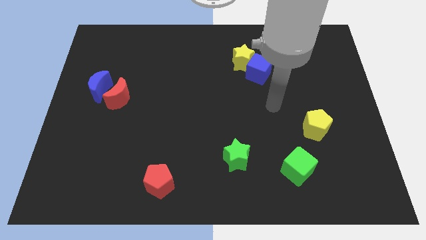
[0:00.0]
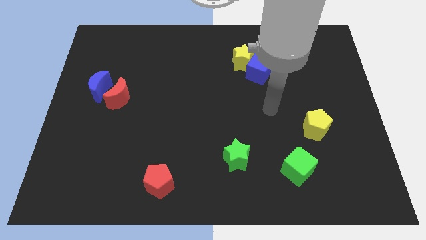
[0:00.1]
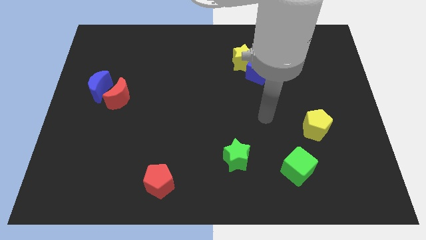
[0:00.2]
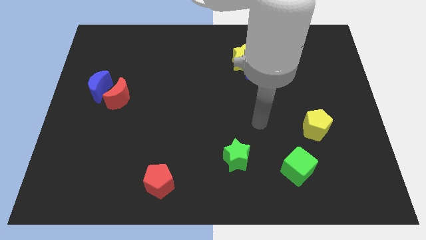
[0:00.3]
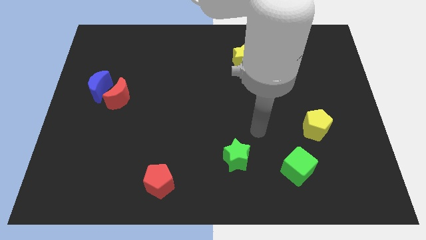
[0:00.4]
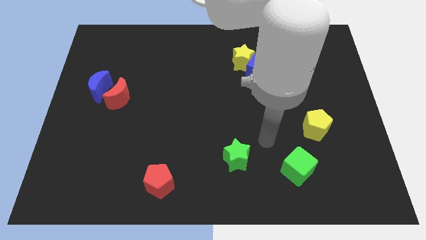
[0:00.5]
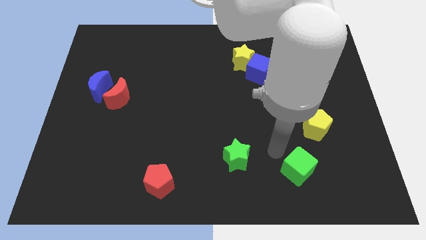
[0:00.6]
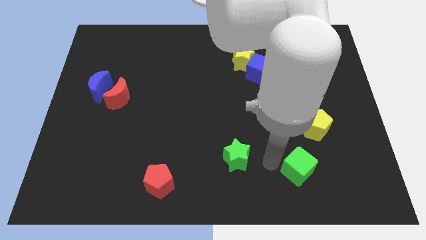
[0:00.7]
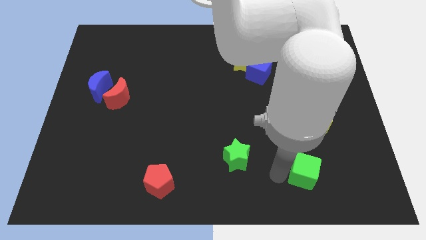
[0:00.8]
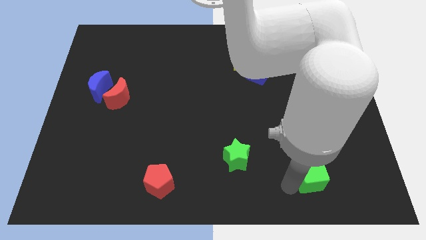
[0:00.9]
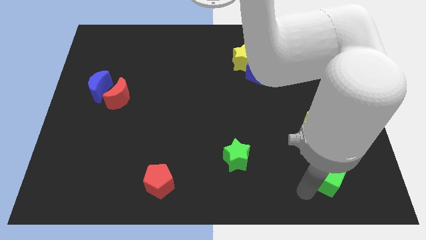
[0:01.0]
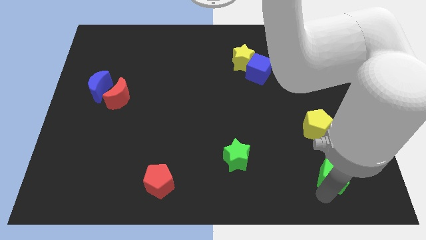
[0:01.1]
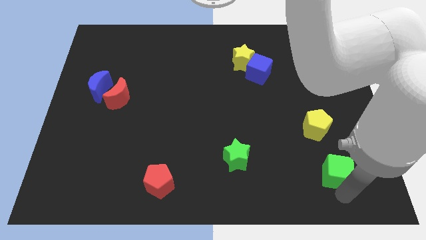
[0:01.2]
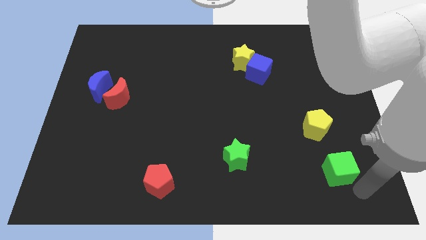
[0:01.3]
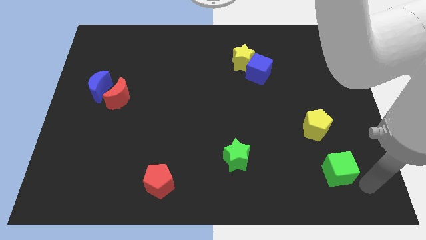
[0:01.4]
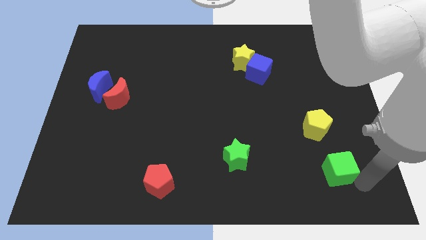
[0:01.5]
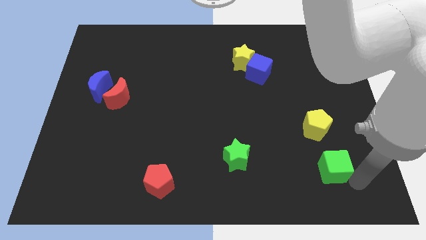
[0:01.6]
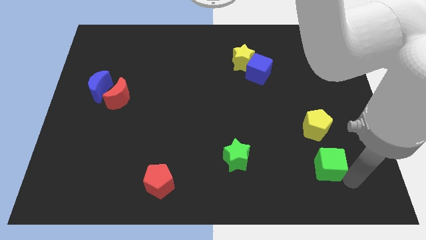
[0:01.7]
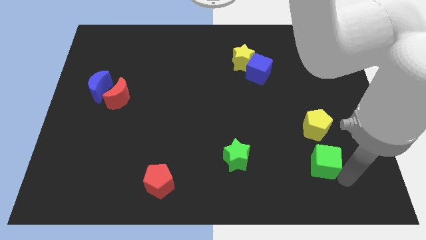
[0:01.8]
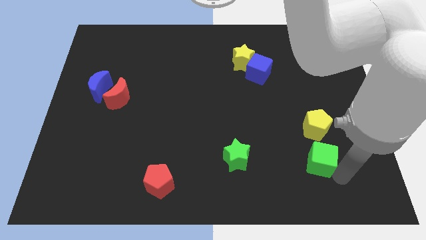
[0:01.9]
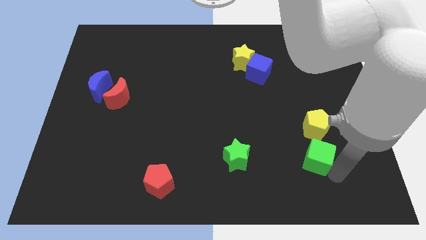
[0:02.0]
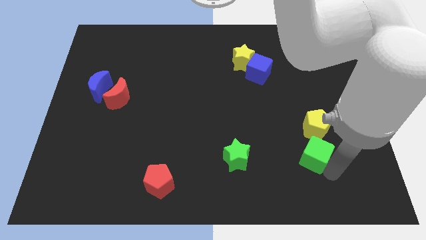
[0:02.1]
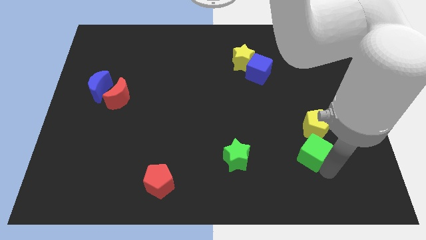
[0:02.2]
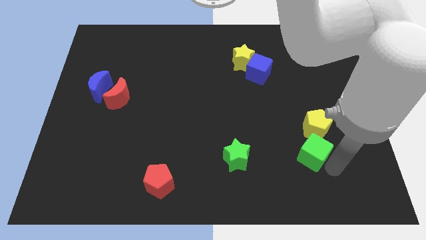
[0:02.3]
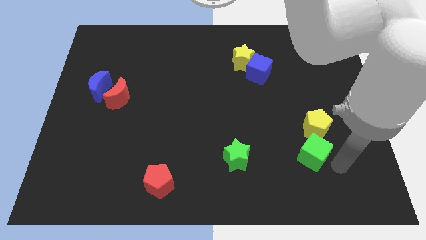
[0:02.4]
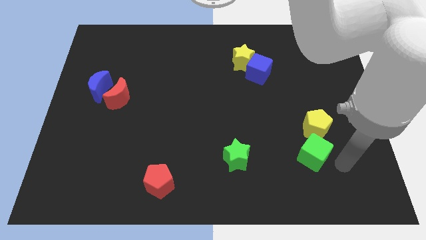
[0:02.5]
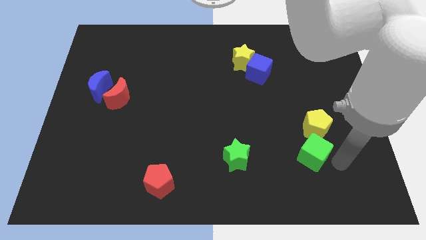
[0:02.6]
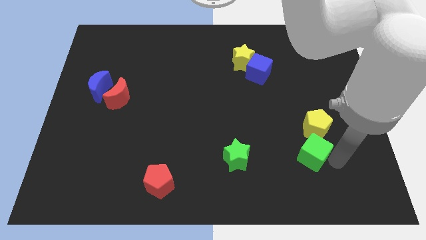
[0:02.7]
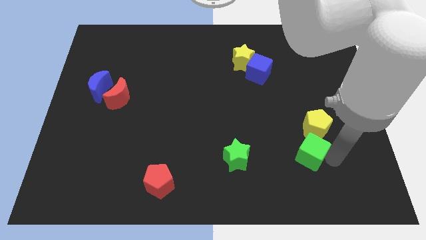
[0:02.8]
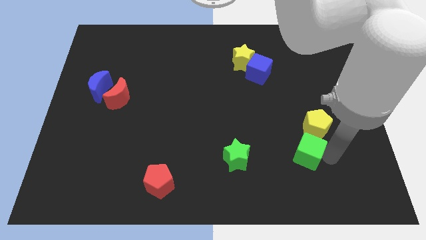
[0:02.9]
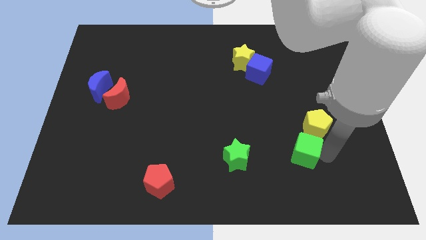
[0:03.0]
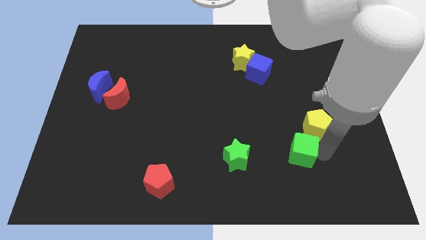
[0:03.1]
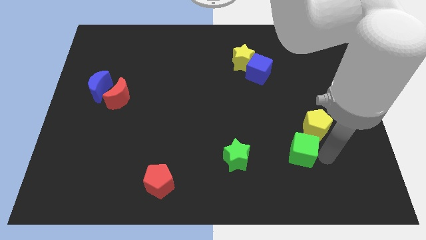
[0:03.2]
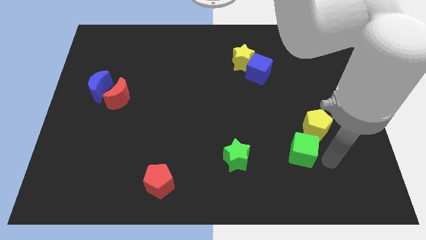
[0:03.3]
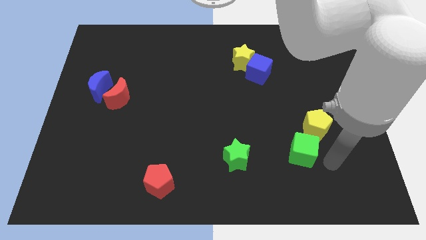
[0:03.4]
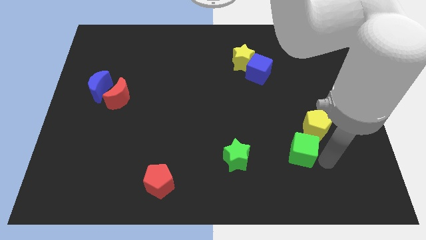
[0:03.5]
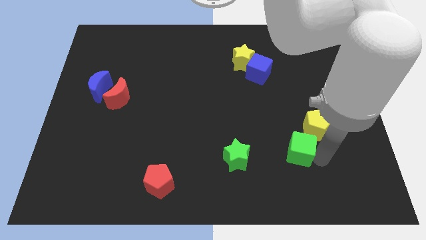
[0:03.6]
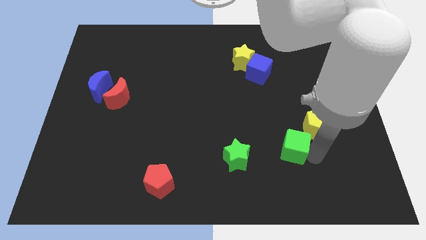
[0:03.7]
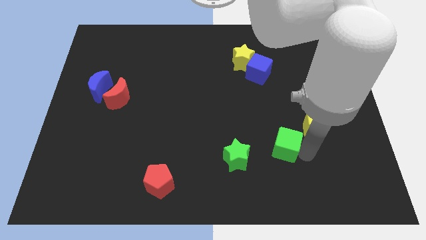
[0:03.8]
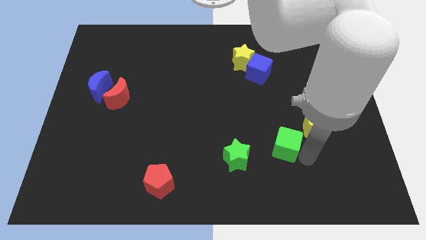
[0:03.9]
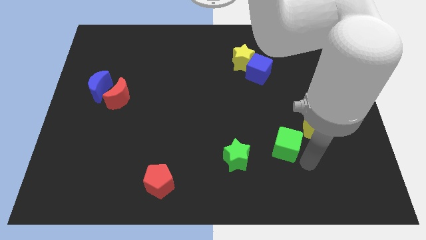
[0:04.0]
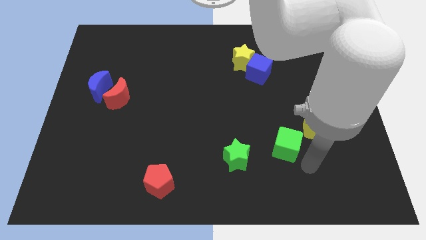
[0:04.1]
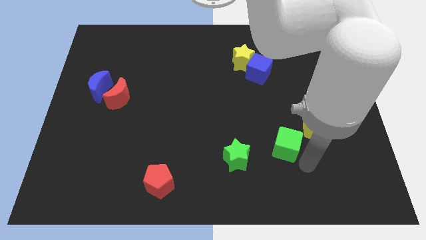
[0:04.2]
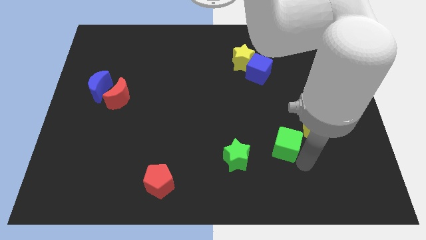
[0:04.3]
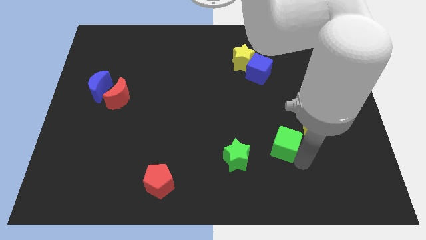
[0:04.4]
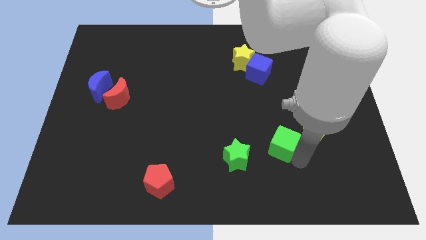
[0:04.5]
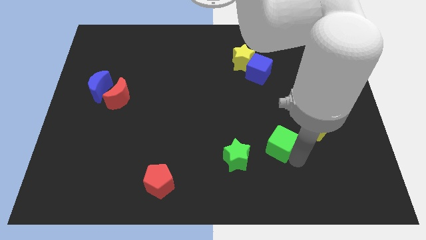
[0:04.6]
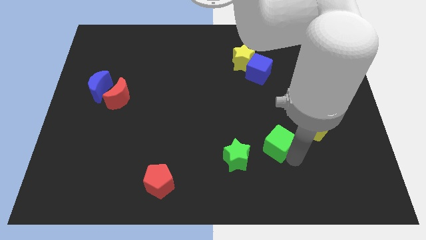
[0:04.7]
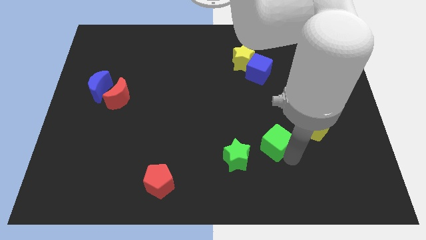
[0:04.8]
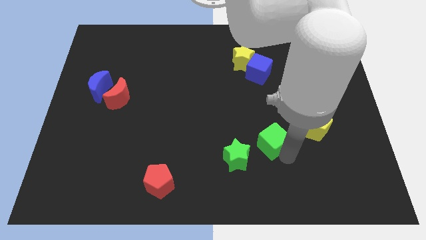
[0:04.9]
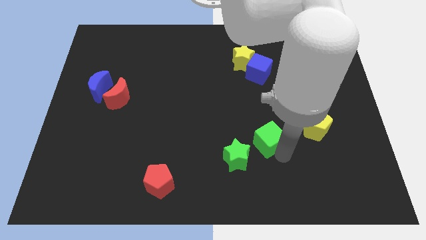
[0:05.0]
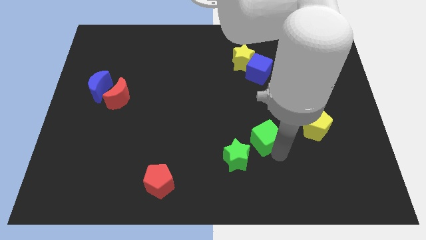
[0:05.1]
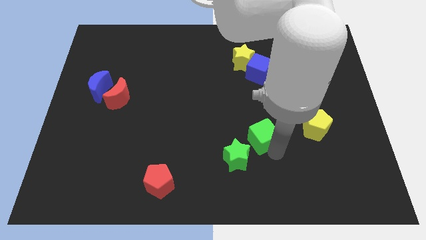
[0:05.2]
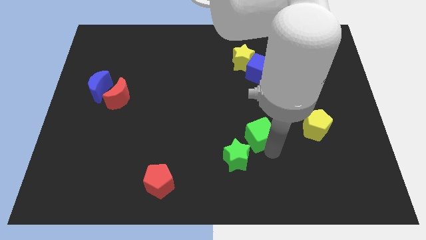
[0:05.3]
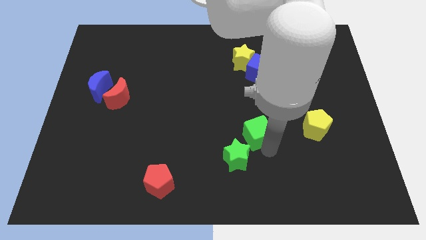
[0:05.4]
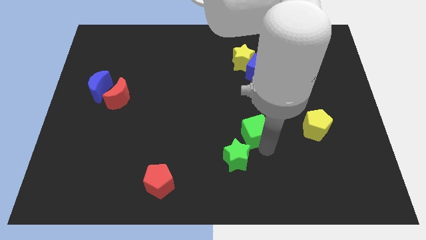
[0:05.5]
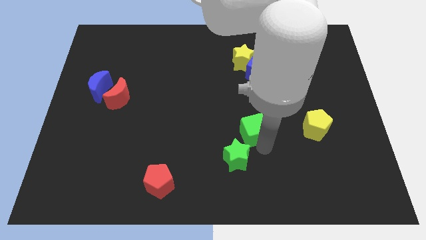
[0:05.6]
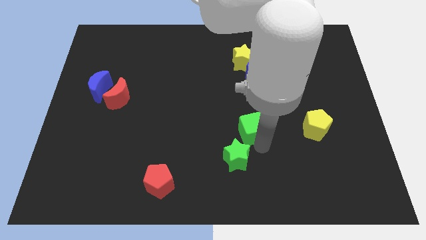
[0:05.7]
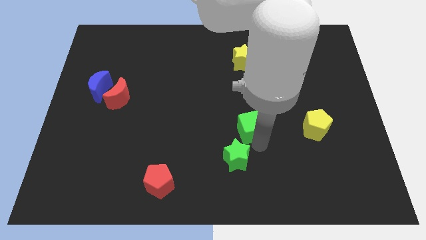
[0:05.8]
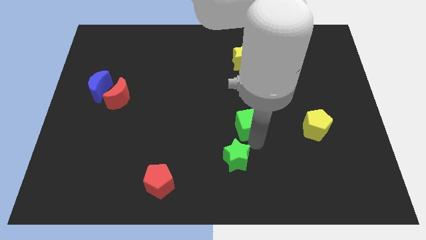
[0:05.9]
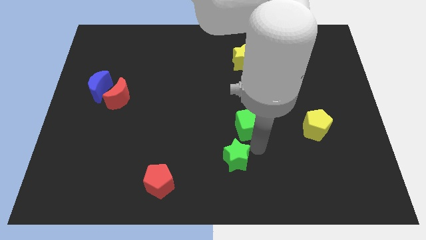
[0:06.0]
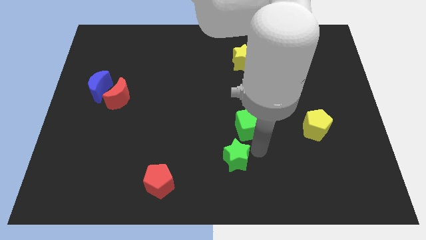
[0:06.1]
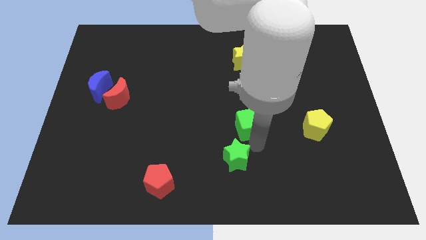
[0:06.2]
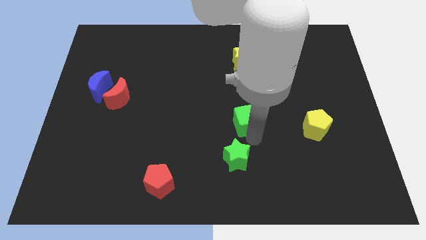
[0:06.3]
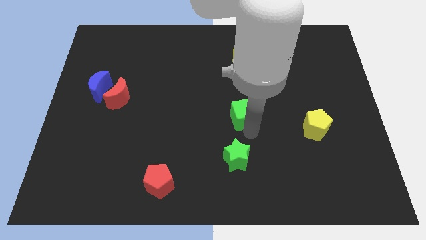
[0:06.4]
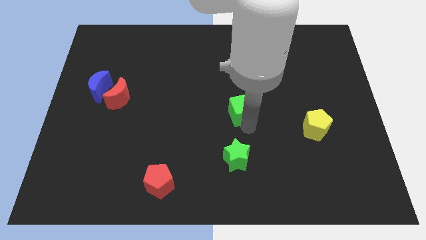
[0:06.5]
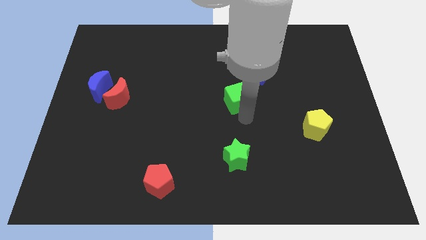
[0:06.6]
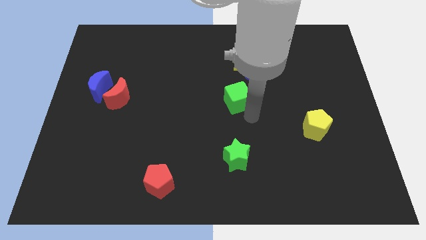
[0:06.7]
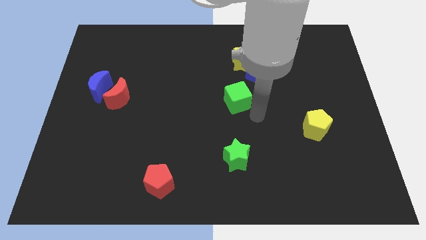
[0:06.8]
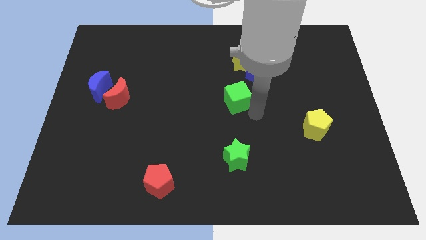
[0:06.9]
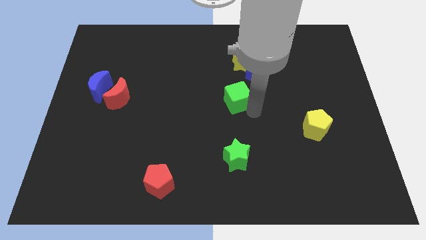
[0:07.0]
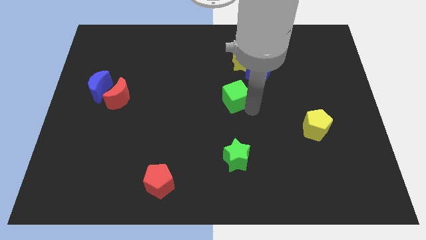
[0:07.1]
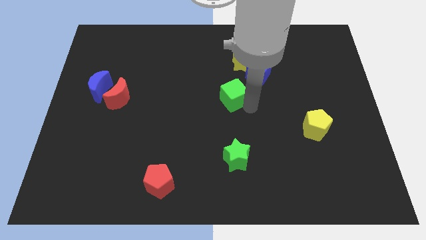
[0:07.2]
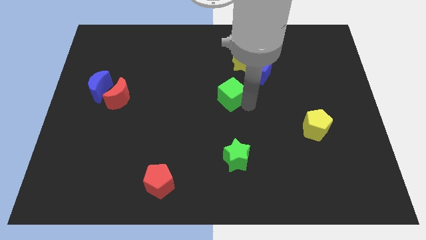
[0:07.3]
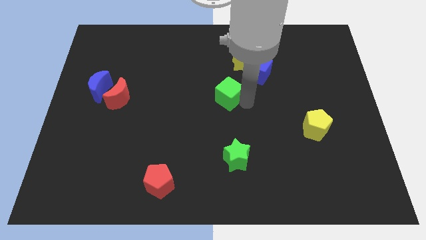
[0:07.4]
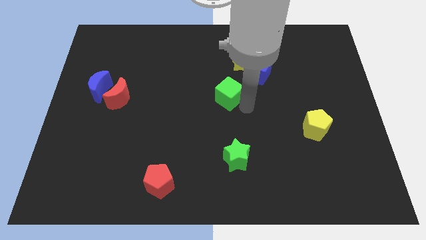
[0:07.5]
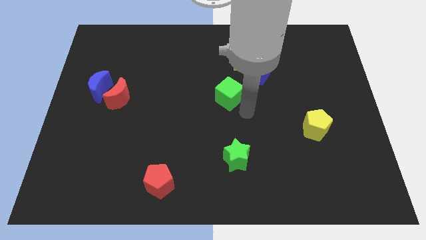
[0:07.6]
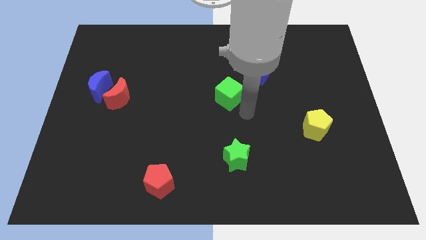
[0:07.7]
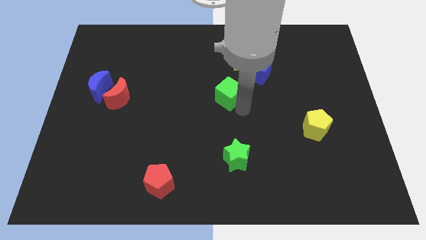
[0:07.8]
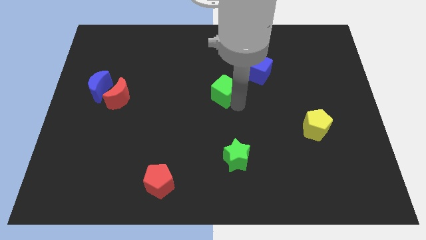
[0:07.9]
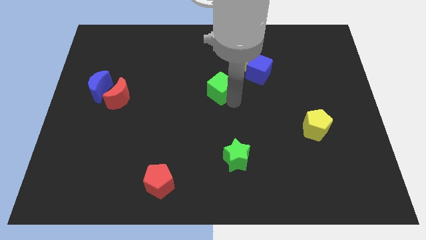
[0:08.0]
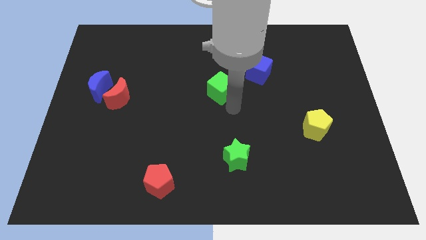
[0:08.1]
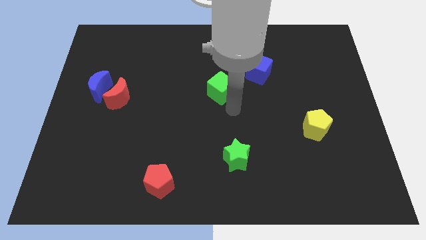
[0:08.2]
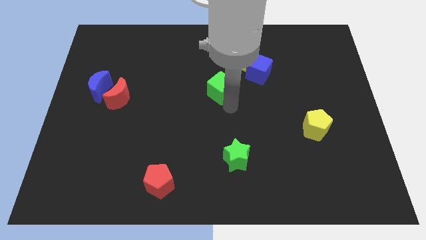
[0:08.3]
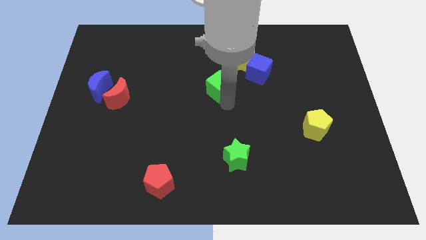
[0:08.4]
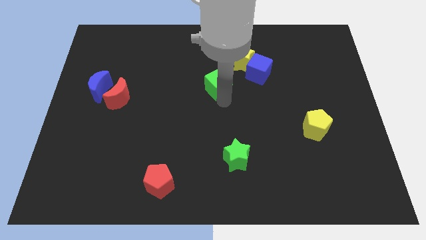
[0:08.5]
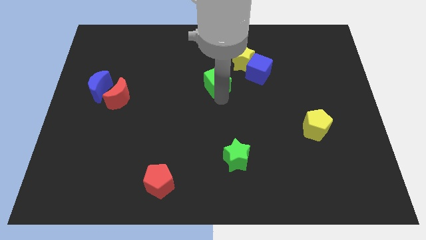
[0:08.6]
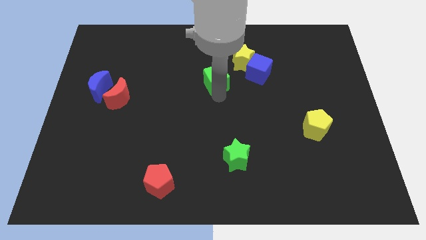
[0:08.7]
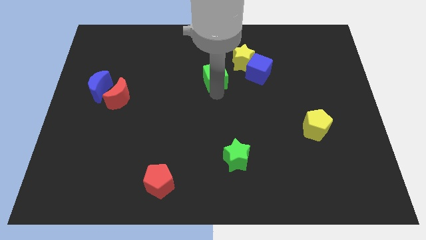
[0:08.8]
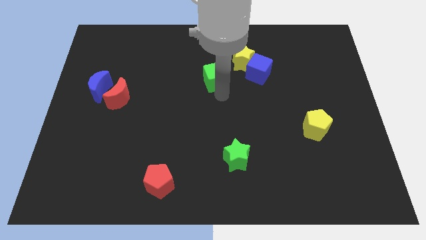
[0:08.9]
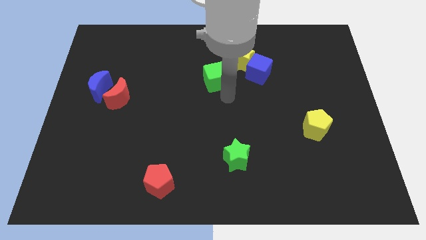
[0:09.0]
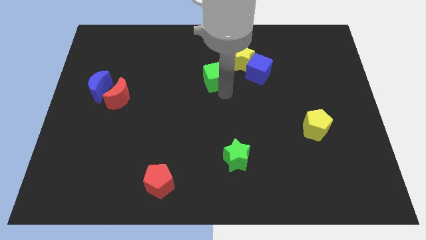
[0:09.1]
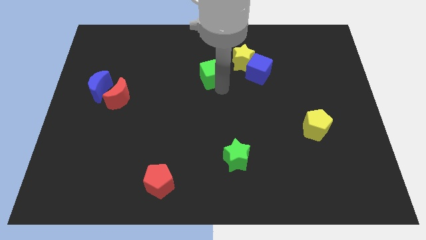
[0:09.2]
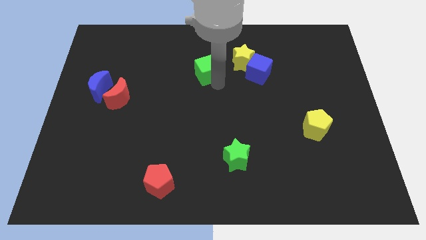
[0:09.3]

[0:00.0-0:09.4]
push the green cube to the left of the yellow star
